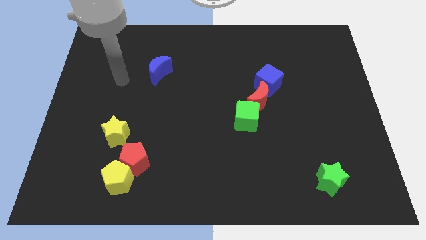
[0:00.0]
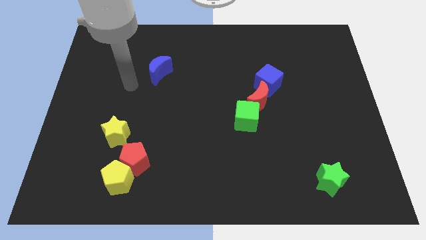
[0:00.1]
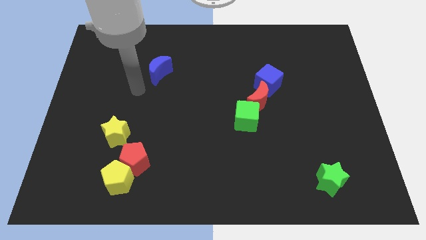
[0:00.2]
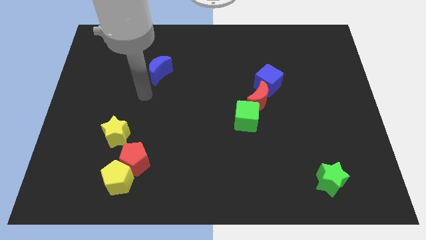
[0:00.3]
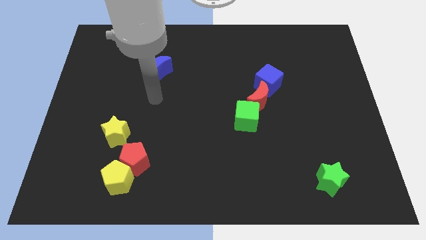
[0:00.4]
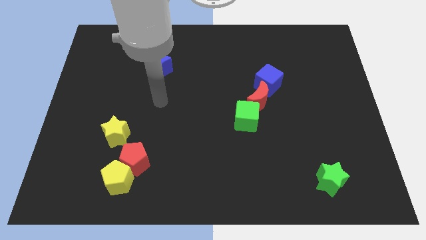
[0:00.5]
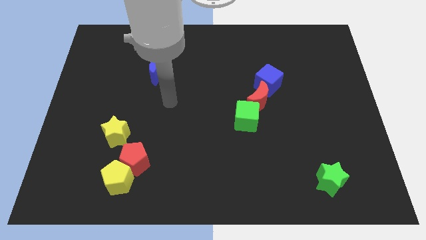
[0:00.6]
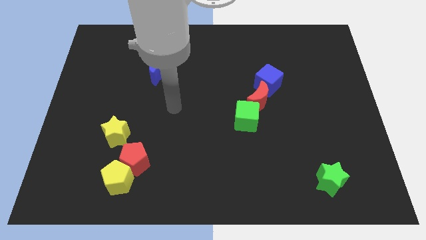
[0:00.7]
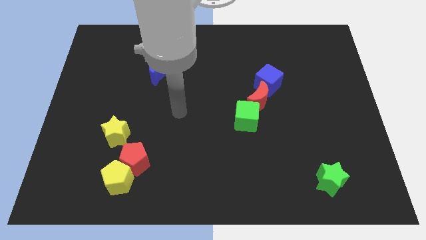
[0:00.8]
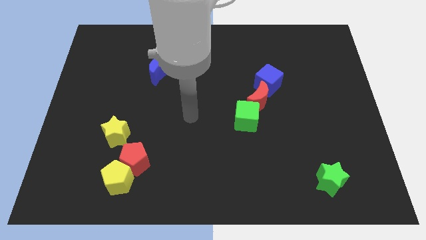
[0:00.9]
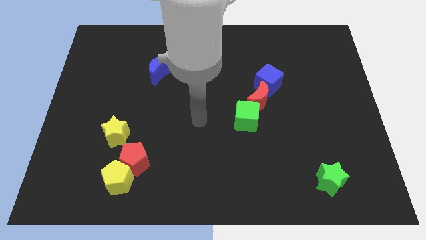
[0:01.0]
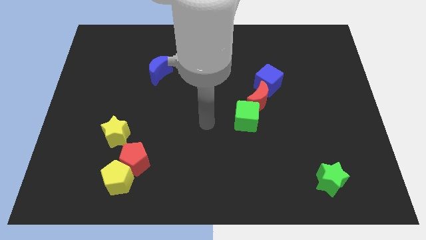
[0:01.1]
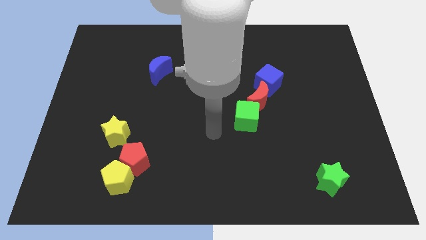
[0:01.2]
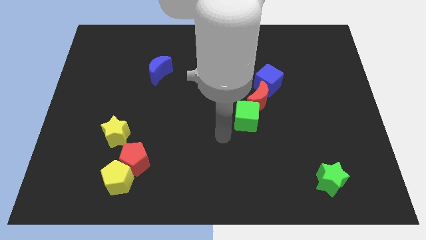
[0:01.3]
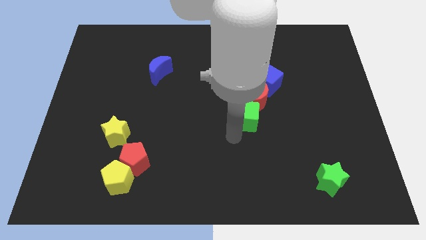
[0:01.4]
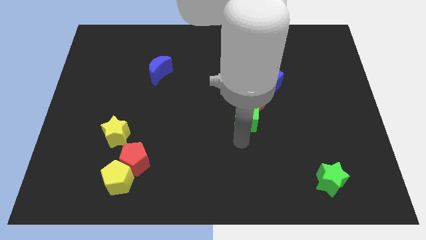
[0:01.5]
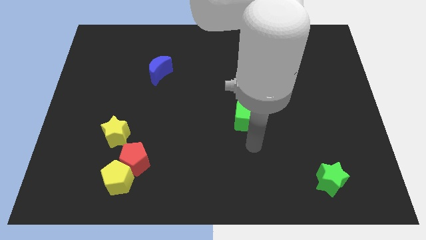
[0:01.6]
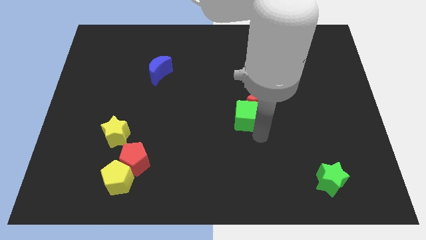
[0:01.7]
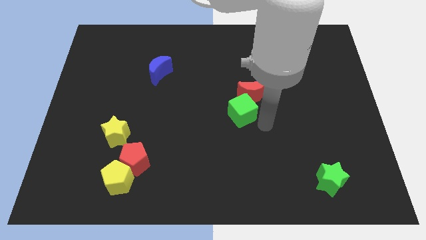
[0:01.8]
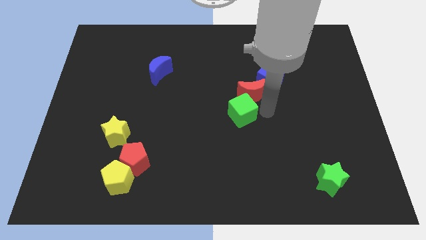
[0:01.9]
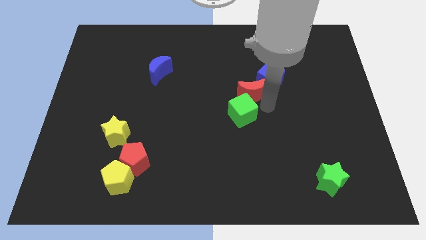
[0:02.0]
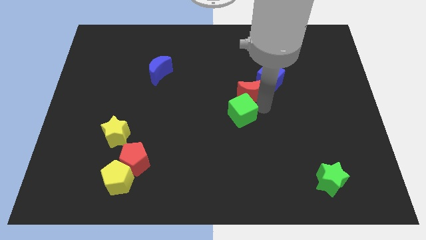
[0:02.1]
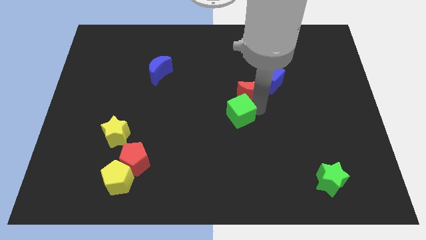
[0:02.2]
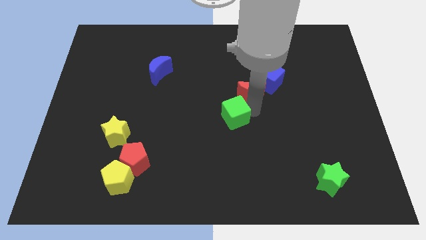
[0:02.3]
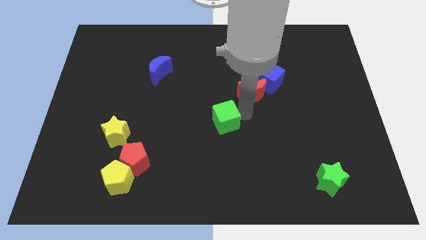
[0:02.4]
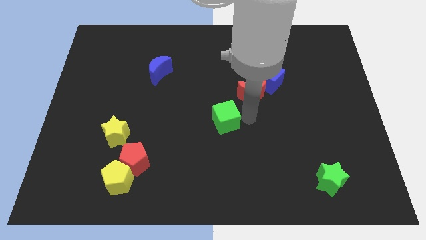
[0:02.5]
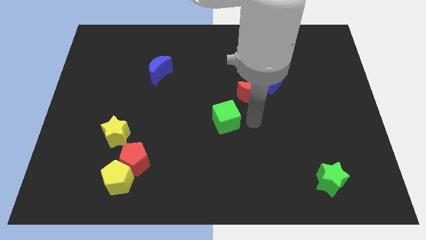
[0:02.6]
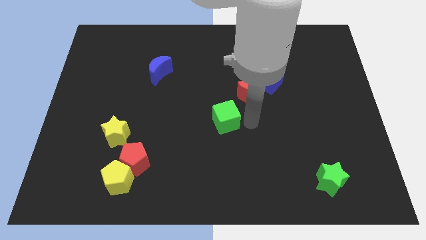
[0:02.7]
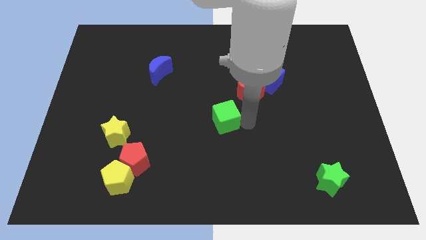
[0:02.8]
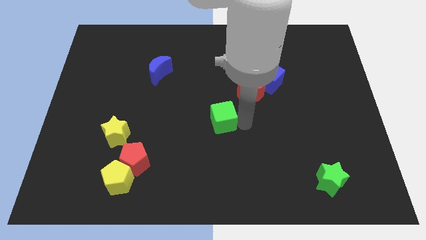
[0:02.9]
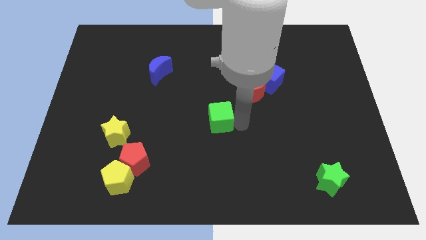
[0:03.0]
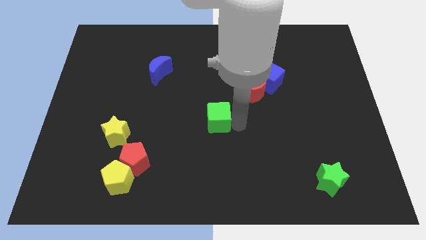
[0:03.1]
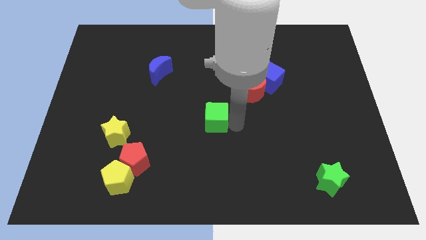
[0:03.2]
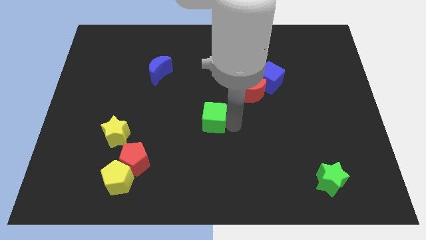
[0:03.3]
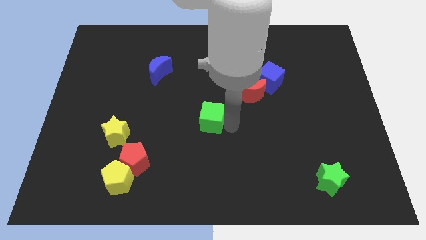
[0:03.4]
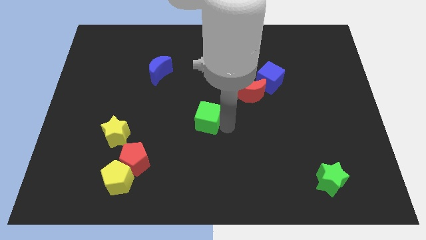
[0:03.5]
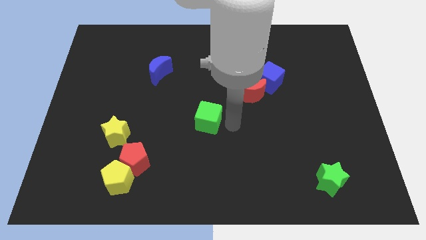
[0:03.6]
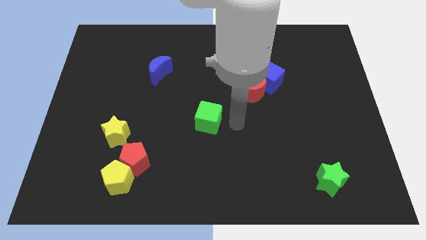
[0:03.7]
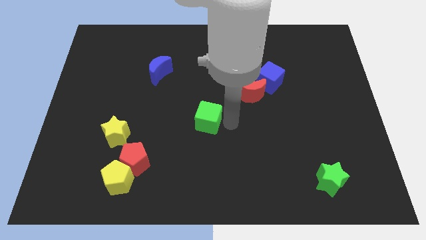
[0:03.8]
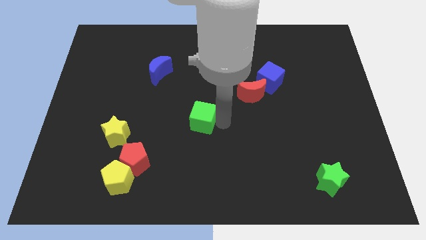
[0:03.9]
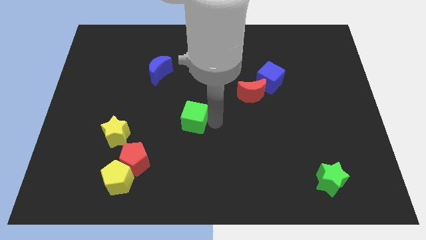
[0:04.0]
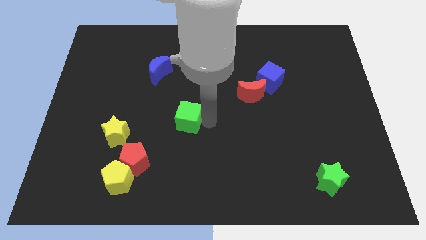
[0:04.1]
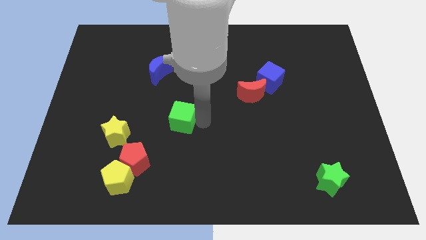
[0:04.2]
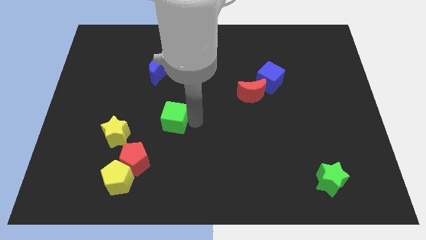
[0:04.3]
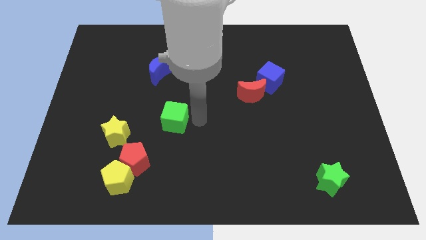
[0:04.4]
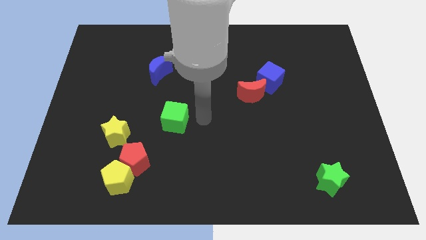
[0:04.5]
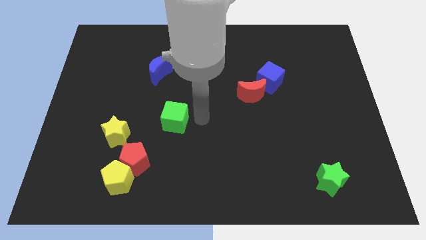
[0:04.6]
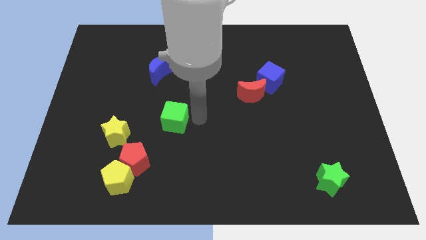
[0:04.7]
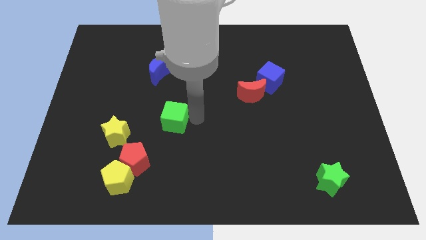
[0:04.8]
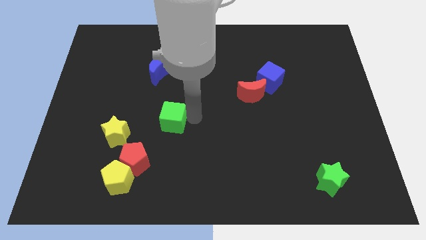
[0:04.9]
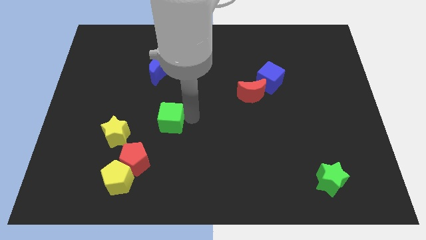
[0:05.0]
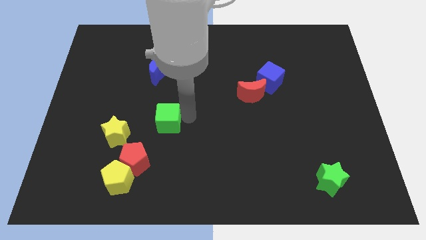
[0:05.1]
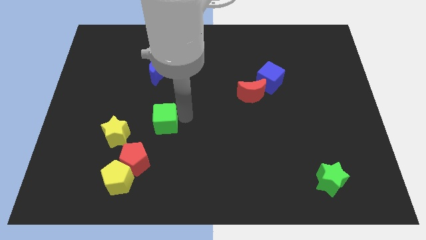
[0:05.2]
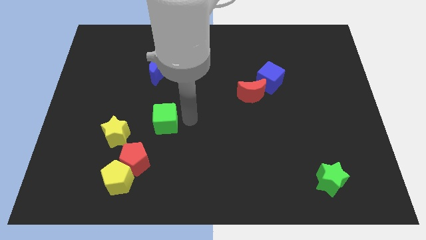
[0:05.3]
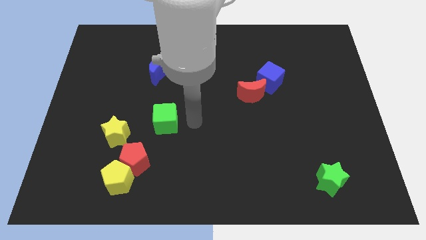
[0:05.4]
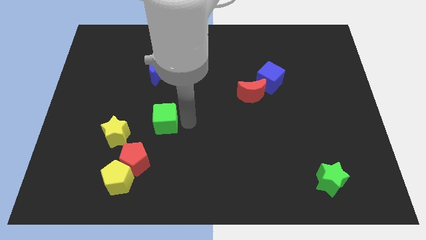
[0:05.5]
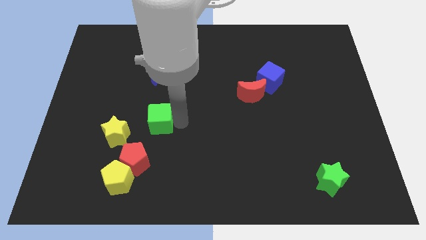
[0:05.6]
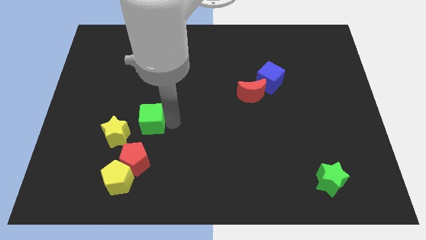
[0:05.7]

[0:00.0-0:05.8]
move the green cube left

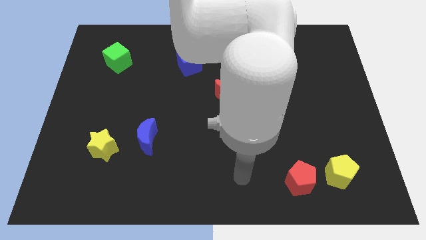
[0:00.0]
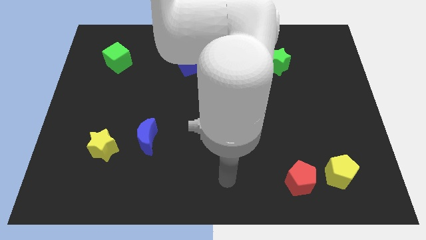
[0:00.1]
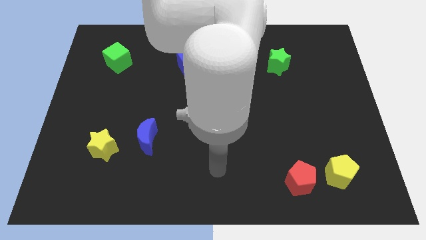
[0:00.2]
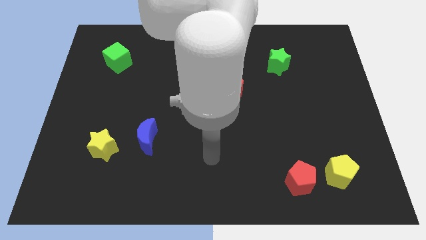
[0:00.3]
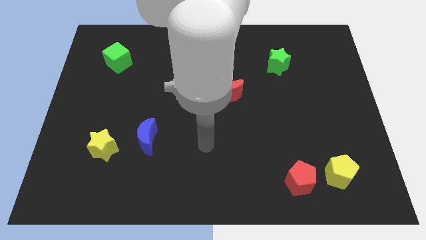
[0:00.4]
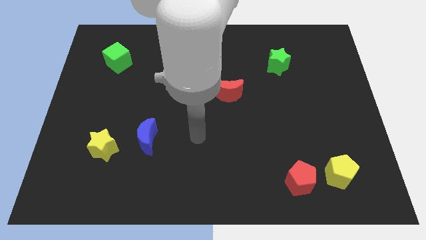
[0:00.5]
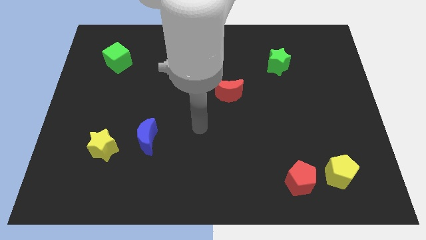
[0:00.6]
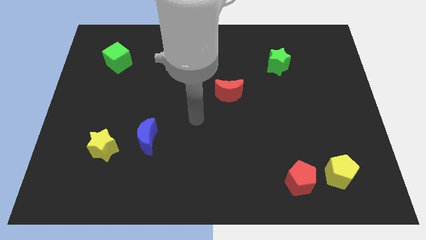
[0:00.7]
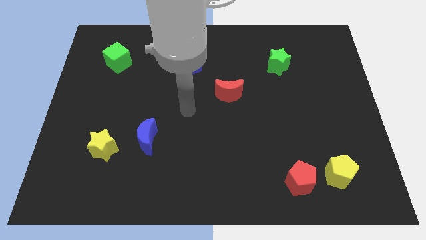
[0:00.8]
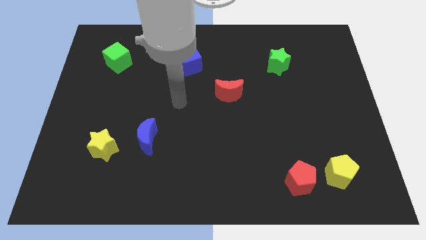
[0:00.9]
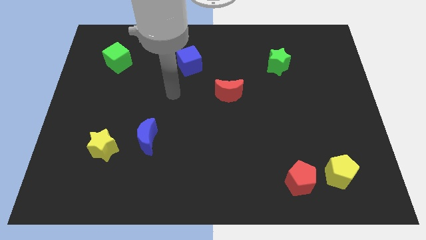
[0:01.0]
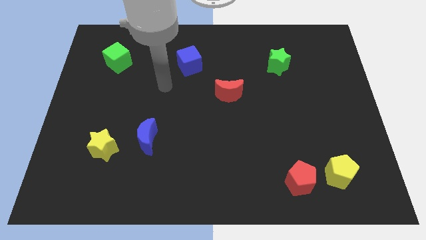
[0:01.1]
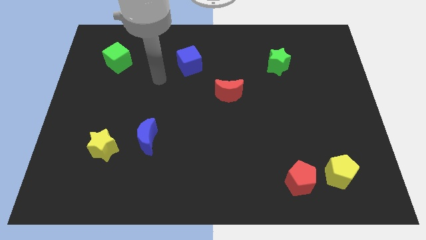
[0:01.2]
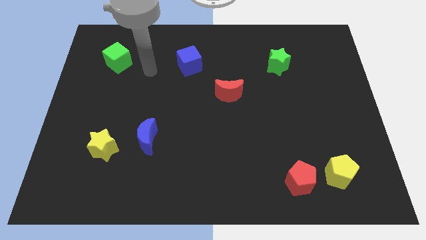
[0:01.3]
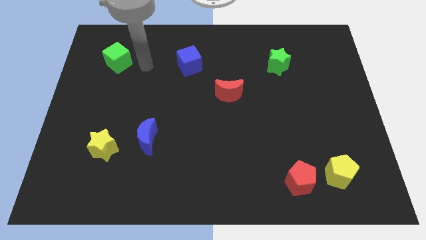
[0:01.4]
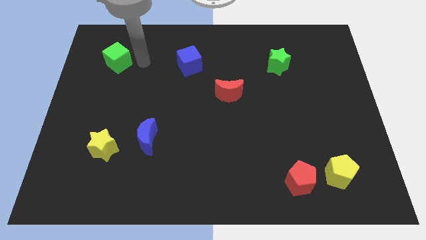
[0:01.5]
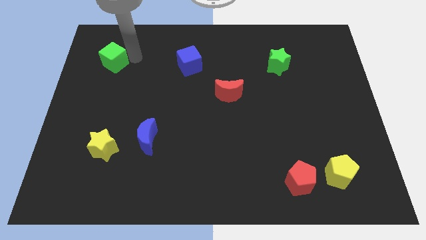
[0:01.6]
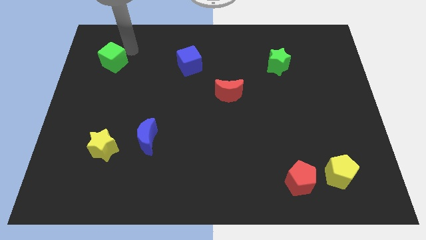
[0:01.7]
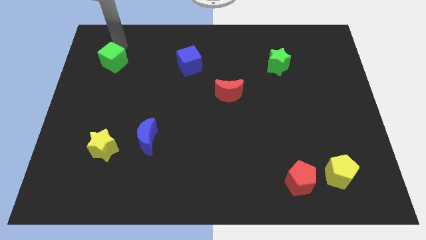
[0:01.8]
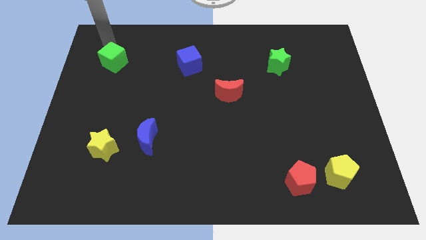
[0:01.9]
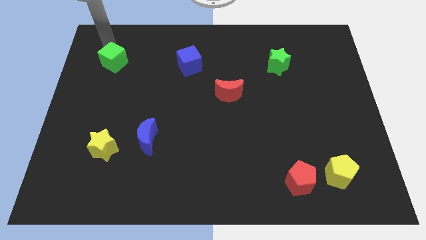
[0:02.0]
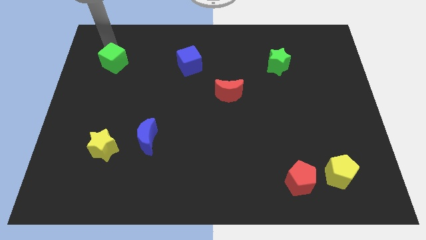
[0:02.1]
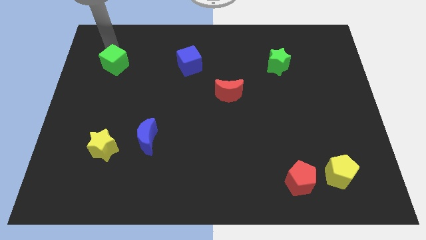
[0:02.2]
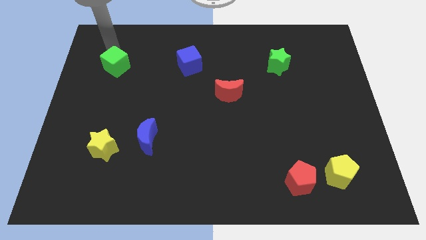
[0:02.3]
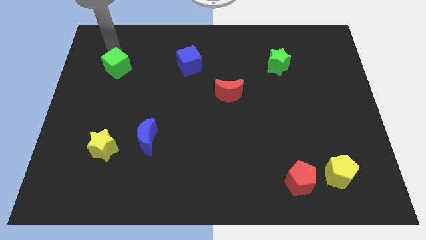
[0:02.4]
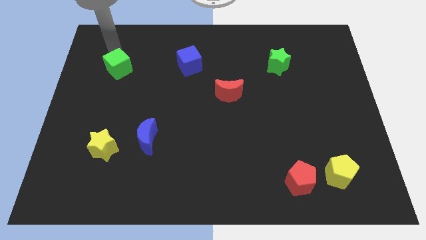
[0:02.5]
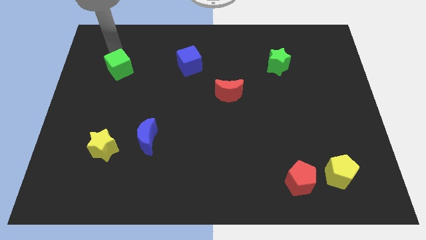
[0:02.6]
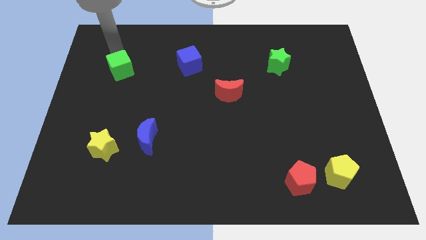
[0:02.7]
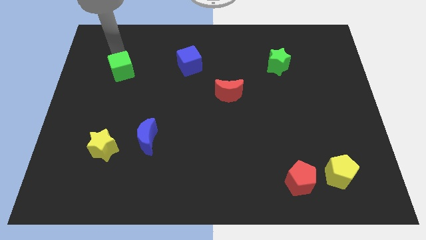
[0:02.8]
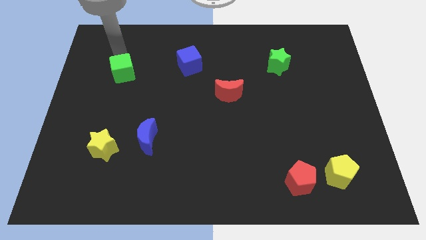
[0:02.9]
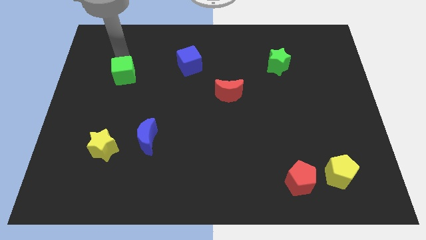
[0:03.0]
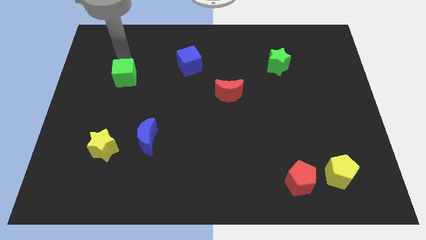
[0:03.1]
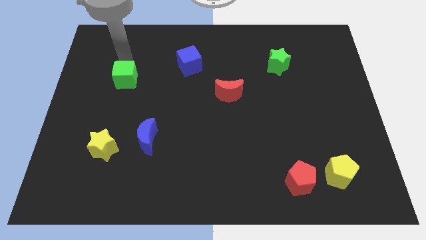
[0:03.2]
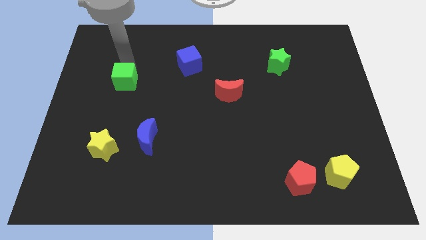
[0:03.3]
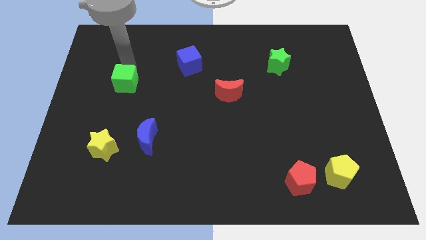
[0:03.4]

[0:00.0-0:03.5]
slide the green cube down a little bit
